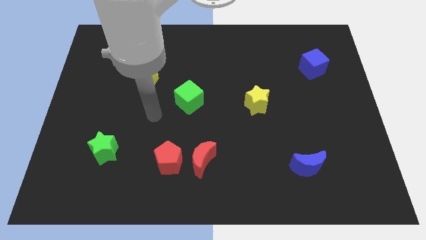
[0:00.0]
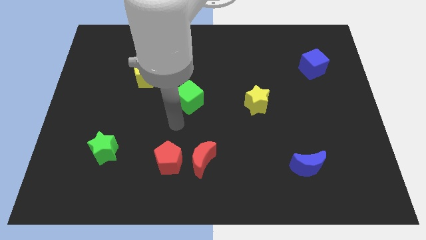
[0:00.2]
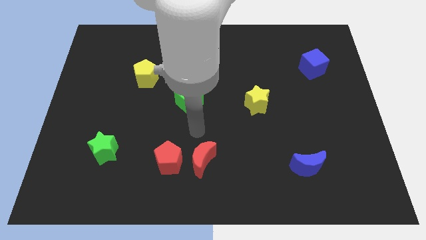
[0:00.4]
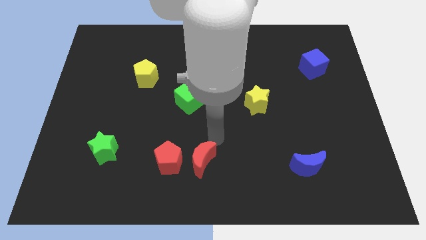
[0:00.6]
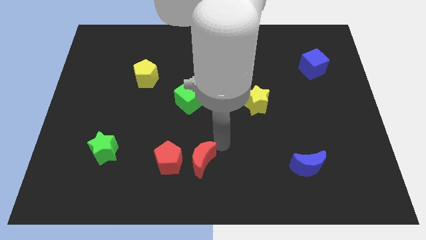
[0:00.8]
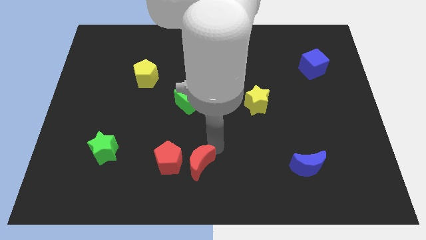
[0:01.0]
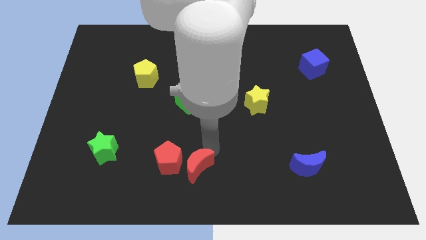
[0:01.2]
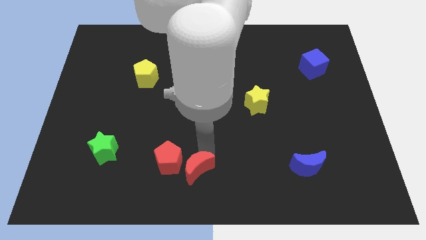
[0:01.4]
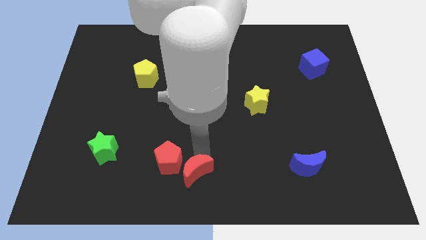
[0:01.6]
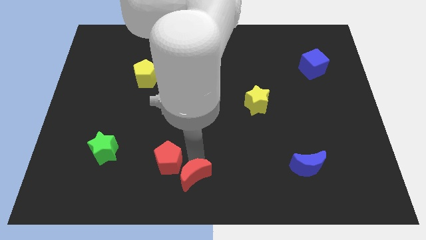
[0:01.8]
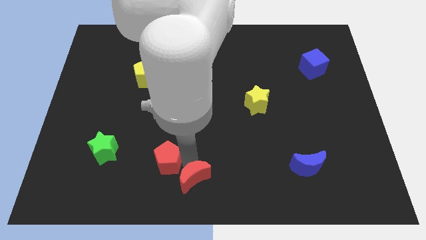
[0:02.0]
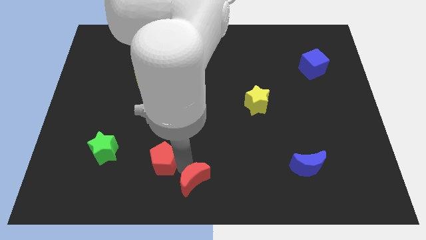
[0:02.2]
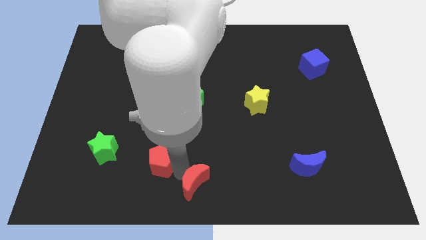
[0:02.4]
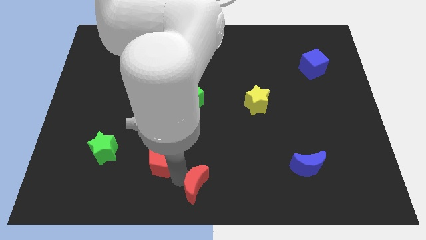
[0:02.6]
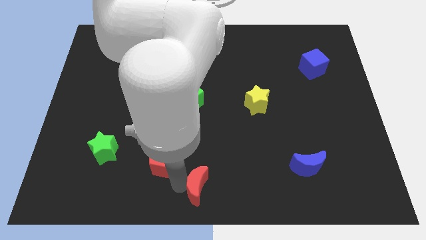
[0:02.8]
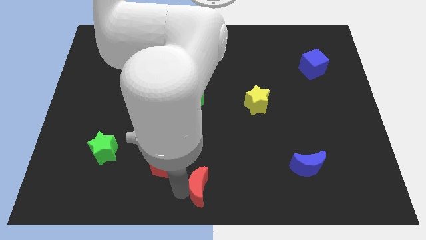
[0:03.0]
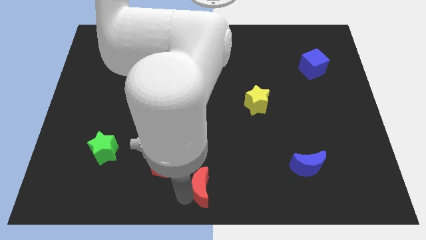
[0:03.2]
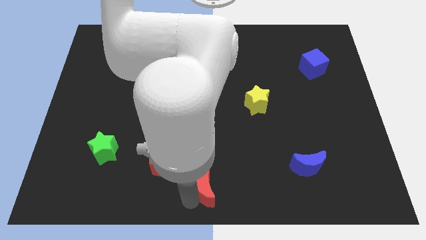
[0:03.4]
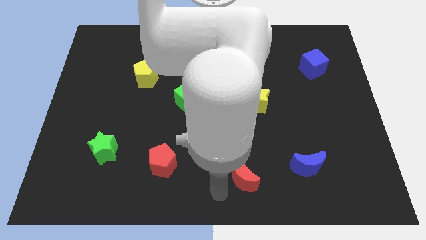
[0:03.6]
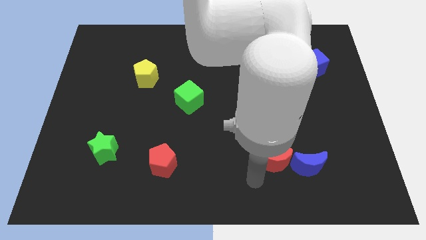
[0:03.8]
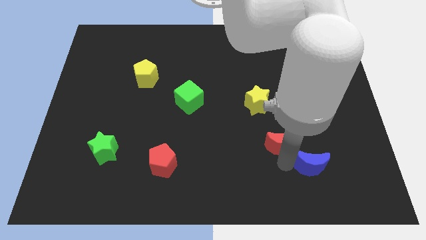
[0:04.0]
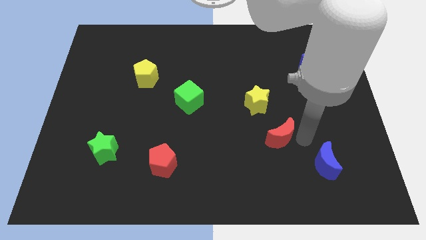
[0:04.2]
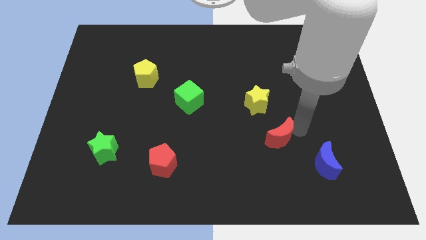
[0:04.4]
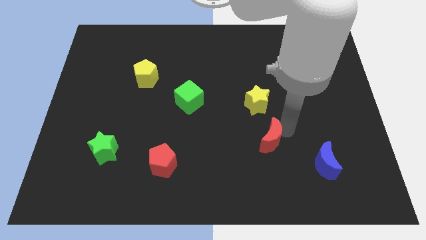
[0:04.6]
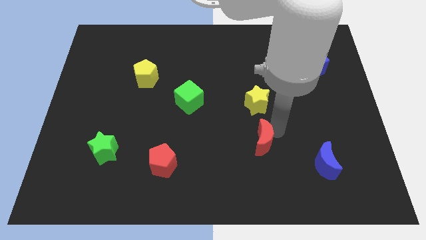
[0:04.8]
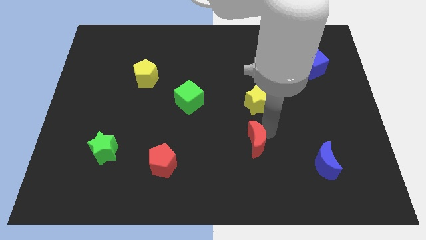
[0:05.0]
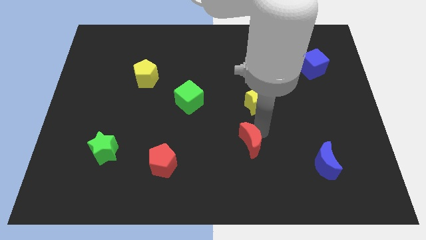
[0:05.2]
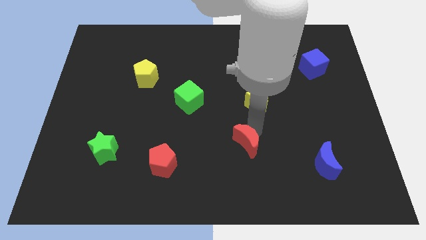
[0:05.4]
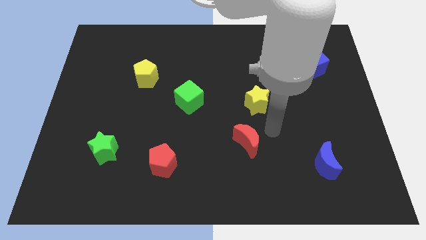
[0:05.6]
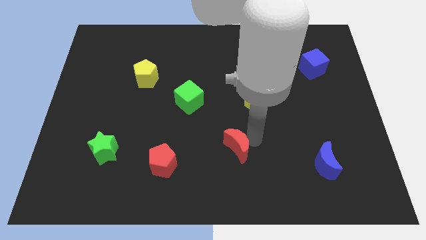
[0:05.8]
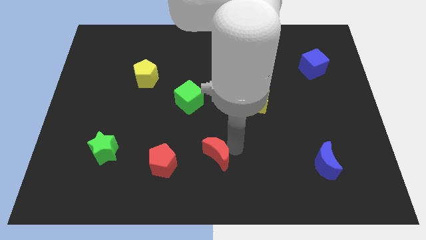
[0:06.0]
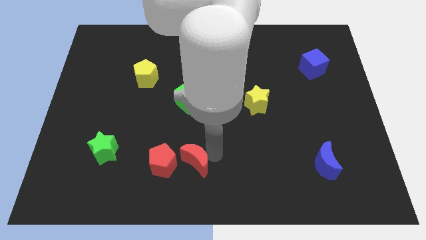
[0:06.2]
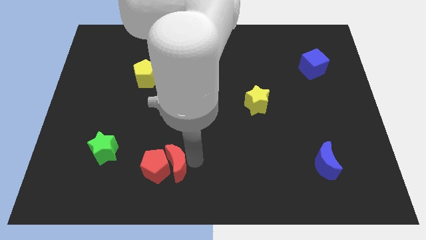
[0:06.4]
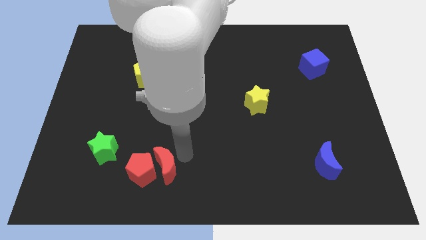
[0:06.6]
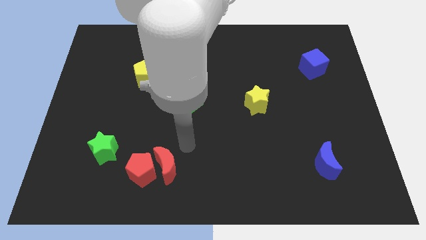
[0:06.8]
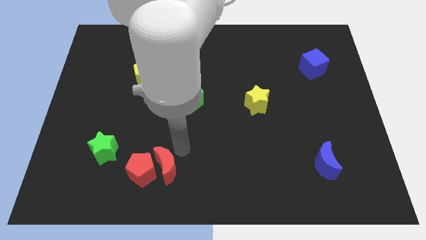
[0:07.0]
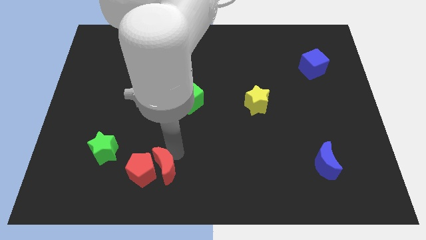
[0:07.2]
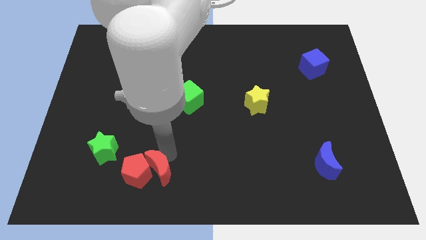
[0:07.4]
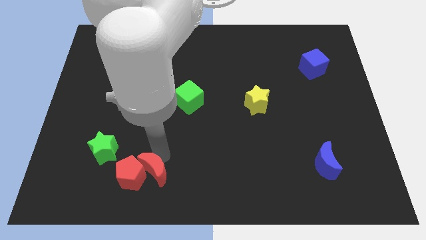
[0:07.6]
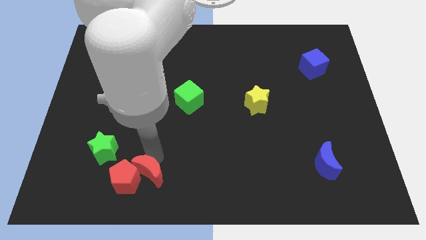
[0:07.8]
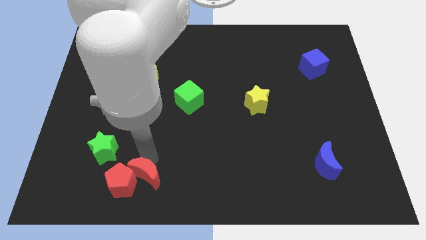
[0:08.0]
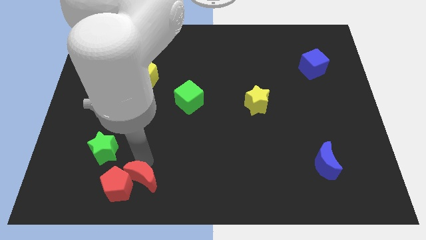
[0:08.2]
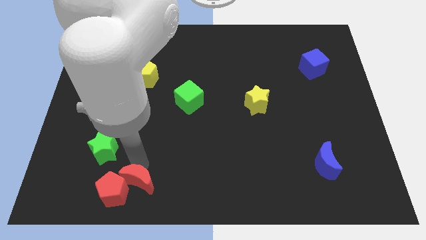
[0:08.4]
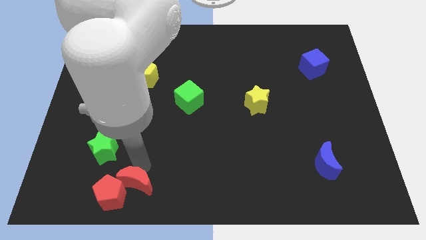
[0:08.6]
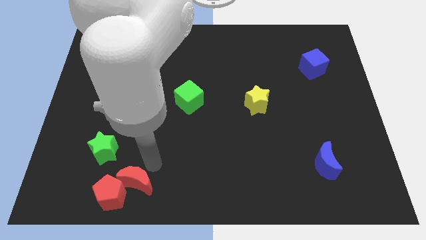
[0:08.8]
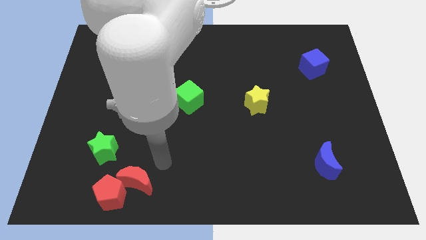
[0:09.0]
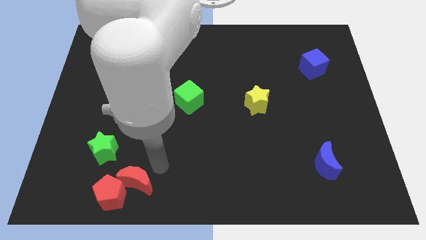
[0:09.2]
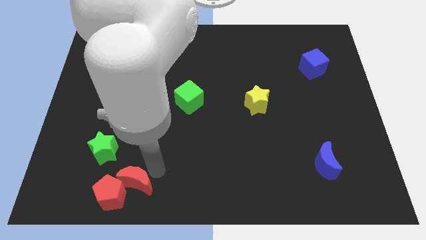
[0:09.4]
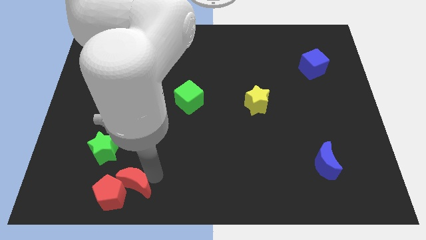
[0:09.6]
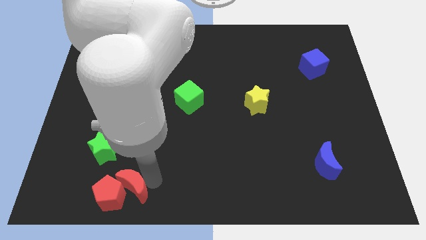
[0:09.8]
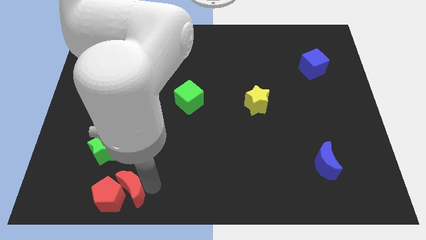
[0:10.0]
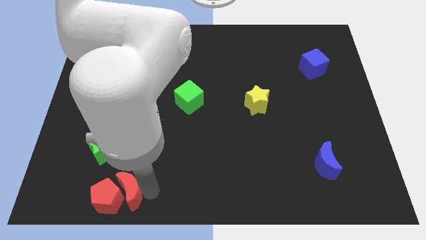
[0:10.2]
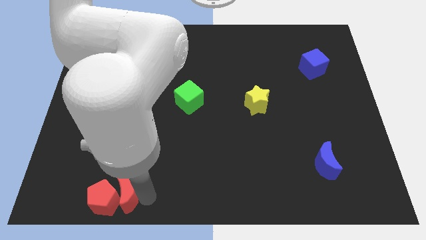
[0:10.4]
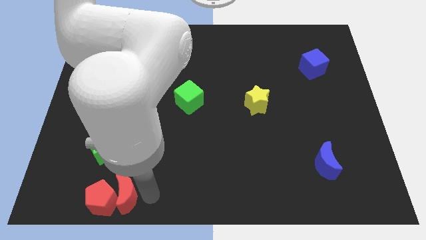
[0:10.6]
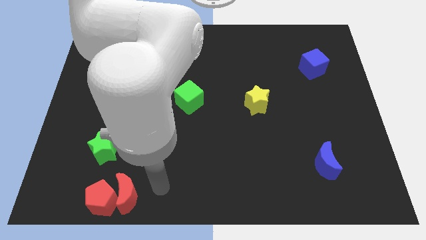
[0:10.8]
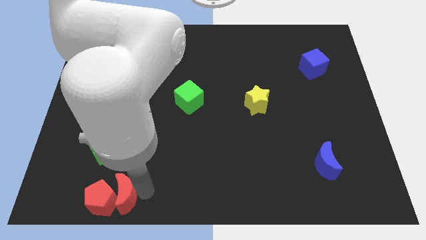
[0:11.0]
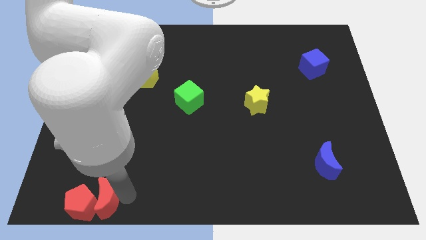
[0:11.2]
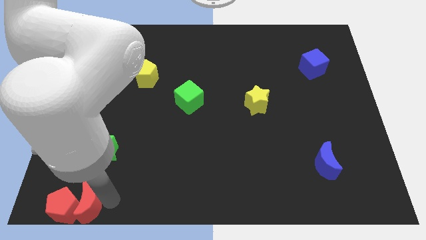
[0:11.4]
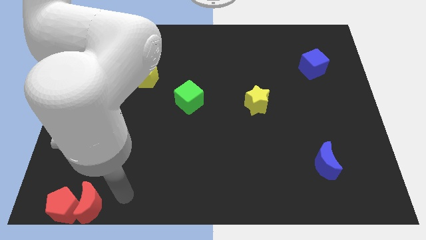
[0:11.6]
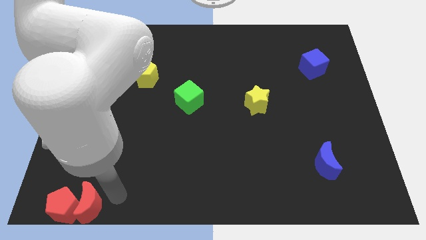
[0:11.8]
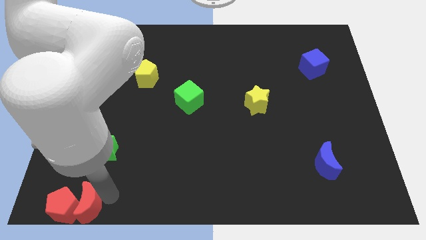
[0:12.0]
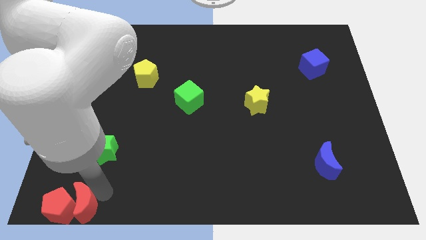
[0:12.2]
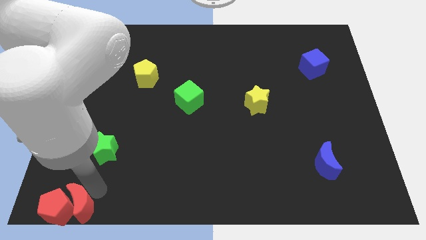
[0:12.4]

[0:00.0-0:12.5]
put the red moon to the bottom left of the board

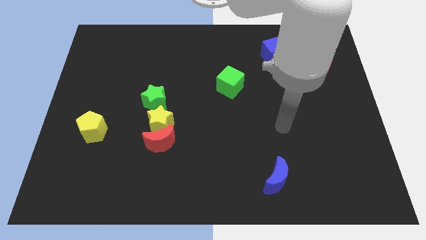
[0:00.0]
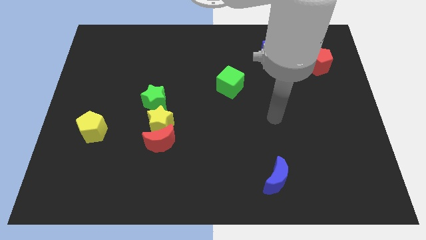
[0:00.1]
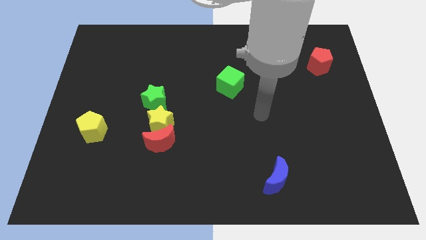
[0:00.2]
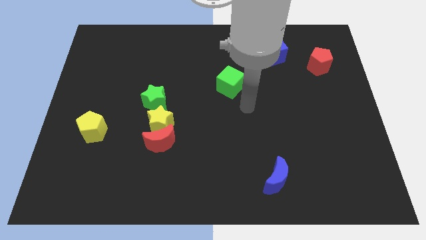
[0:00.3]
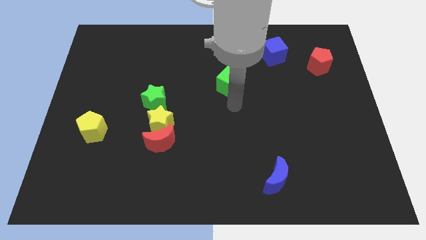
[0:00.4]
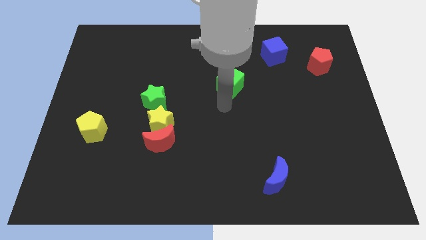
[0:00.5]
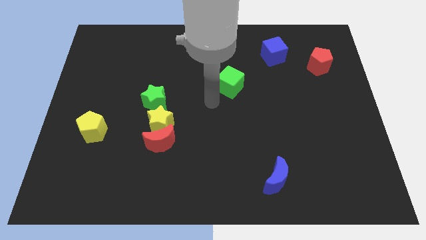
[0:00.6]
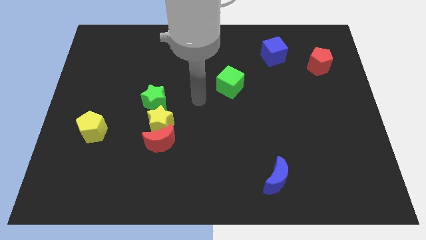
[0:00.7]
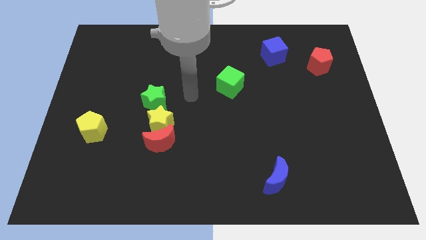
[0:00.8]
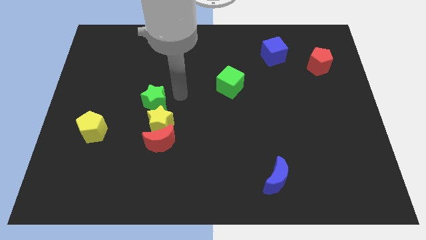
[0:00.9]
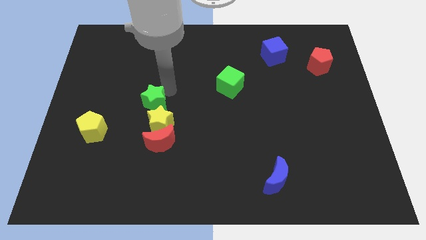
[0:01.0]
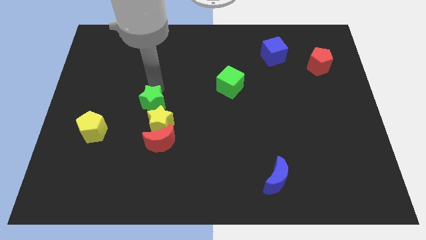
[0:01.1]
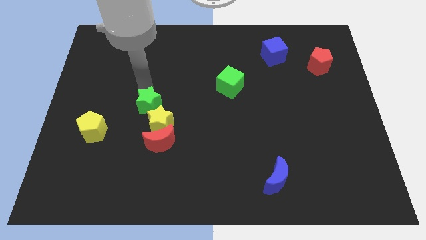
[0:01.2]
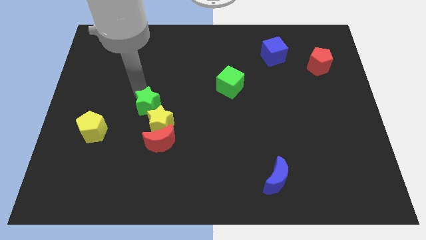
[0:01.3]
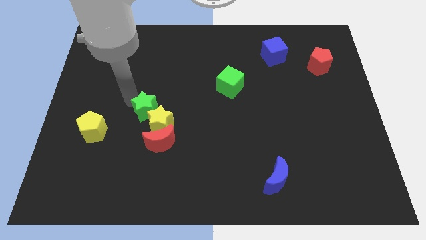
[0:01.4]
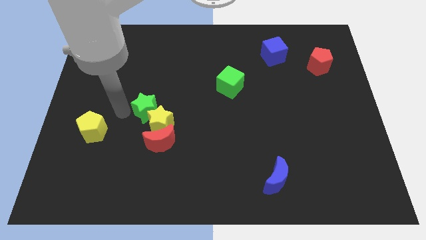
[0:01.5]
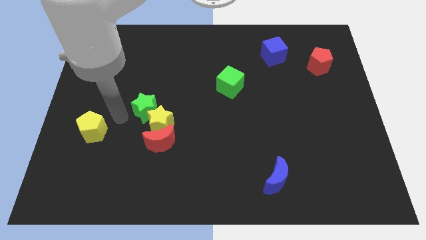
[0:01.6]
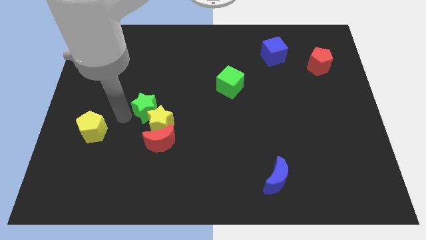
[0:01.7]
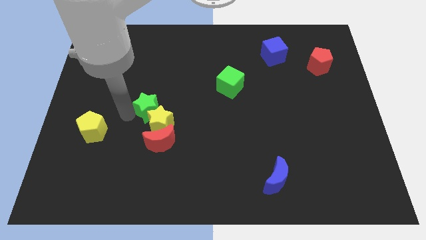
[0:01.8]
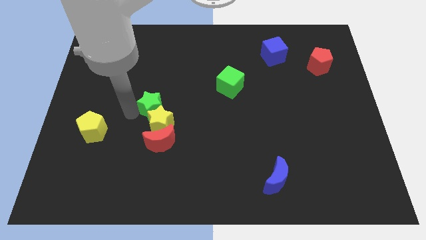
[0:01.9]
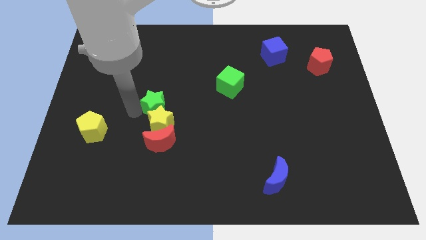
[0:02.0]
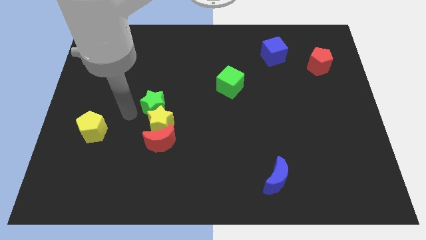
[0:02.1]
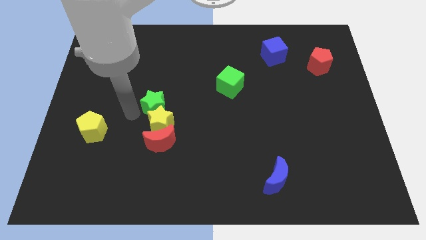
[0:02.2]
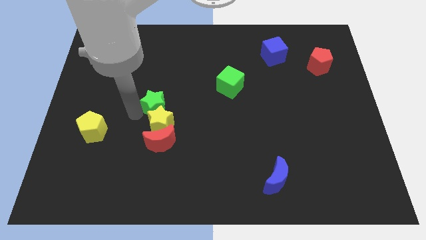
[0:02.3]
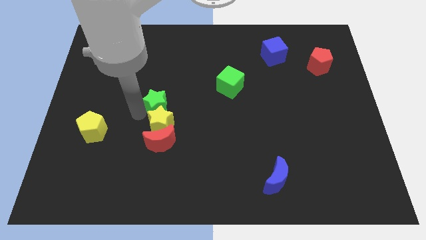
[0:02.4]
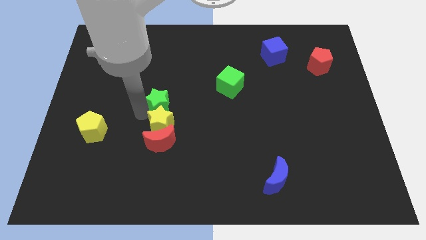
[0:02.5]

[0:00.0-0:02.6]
move the green star to the center of the board
